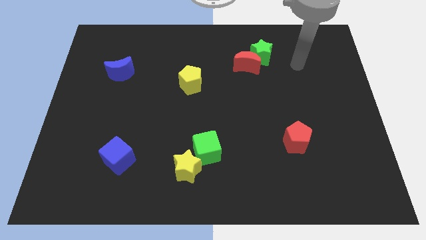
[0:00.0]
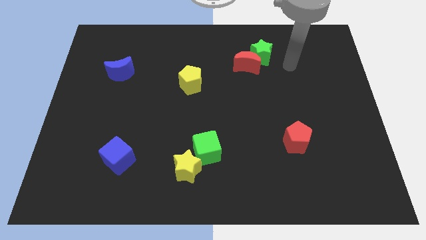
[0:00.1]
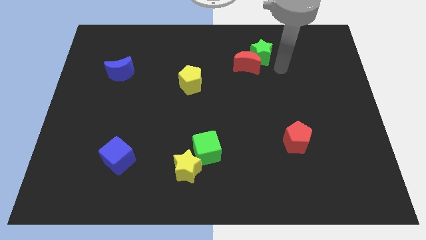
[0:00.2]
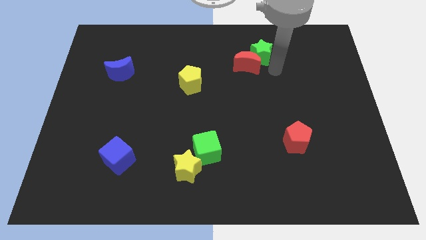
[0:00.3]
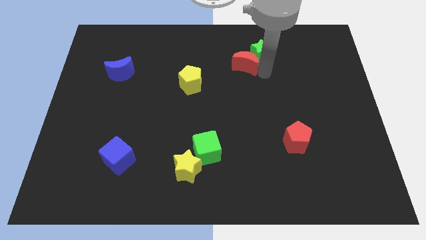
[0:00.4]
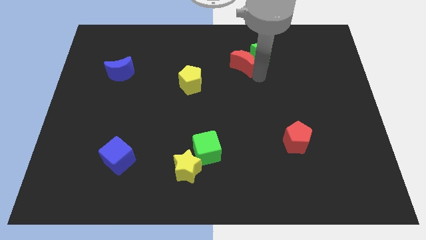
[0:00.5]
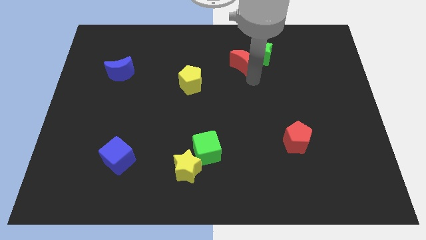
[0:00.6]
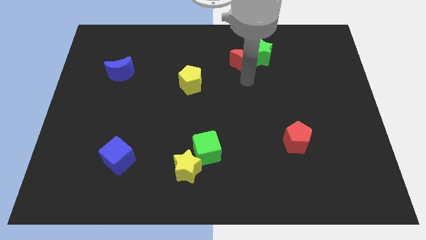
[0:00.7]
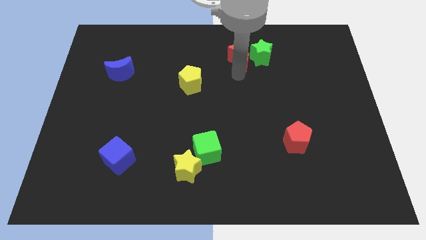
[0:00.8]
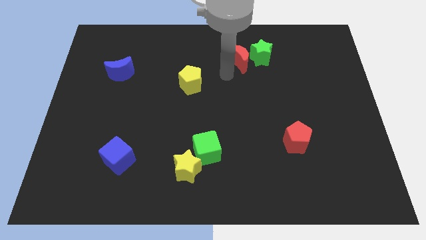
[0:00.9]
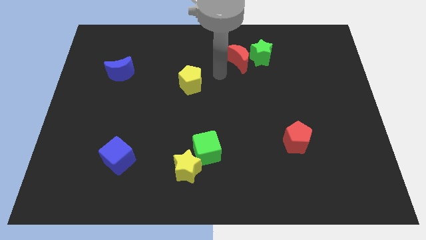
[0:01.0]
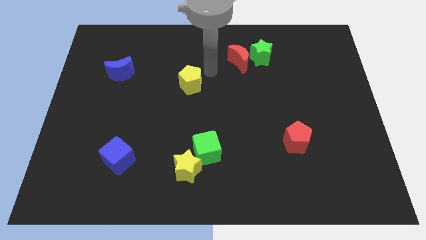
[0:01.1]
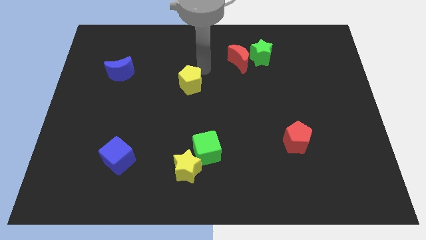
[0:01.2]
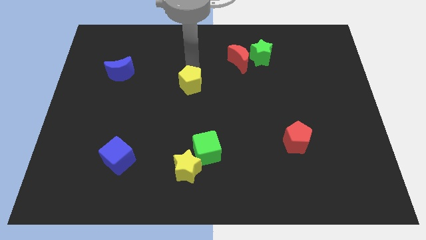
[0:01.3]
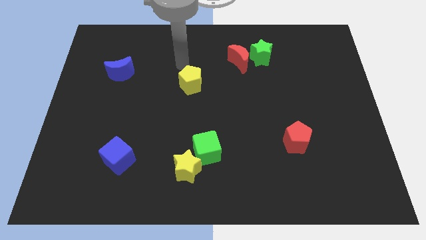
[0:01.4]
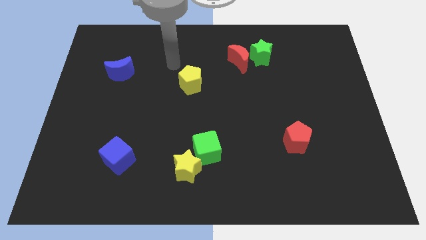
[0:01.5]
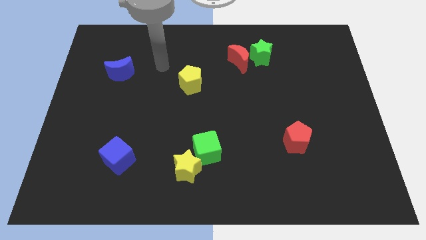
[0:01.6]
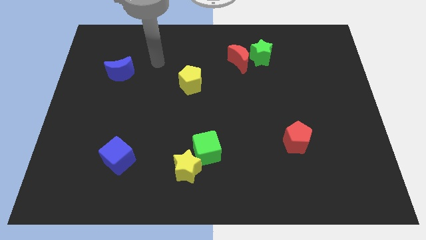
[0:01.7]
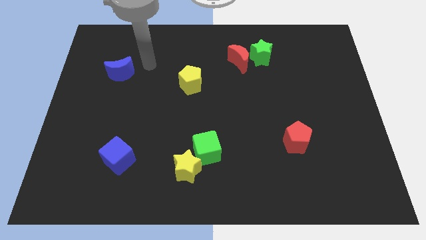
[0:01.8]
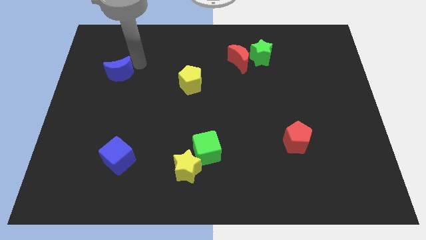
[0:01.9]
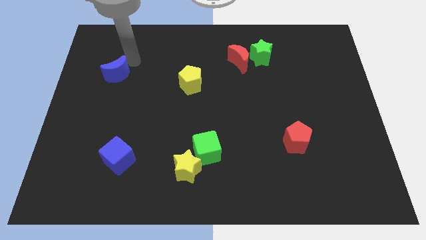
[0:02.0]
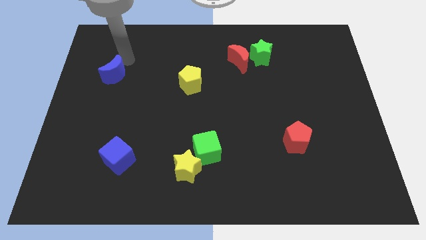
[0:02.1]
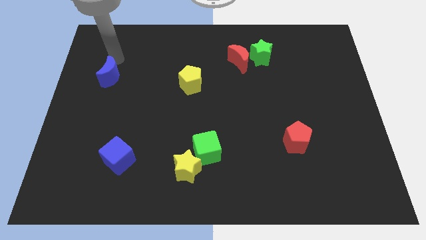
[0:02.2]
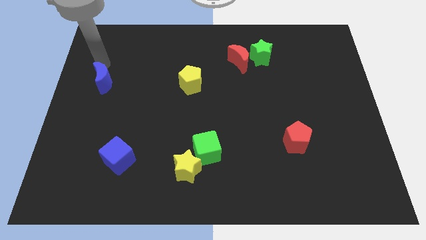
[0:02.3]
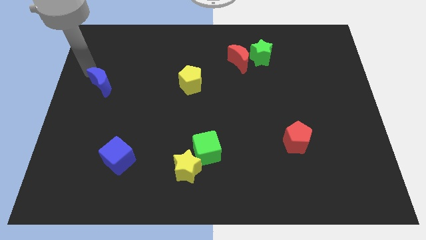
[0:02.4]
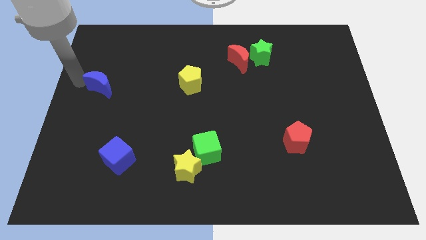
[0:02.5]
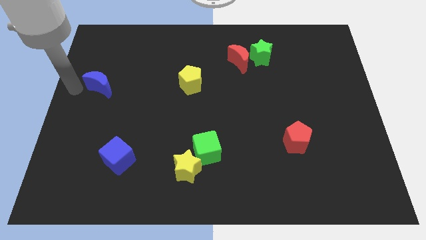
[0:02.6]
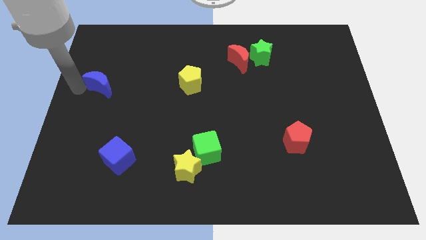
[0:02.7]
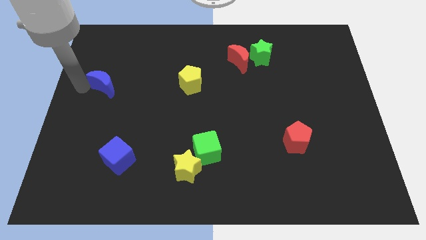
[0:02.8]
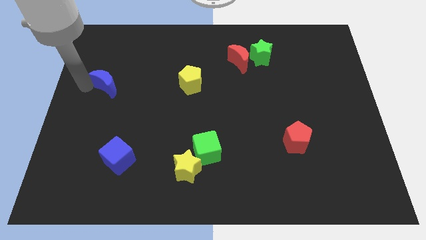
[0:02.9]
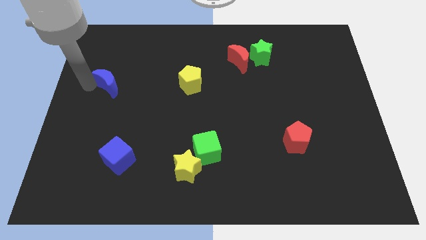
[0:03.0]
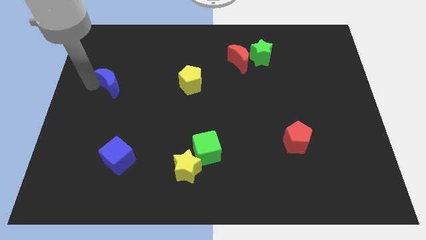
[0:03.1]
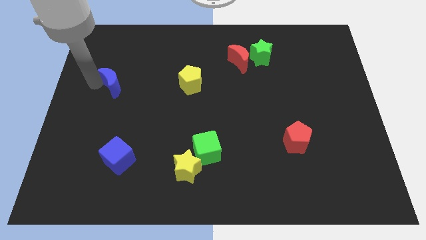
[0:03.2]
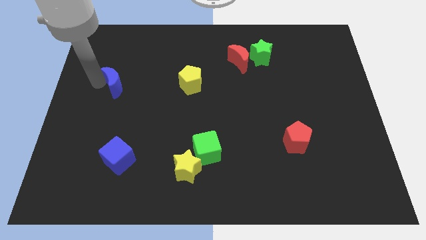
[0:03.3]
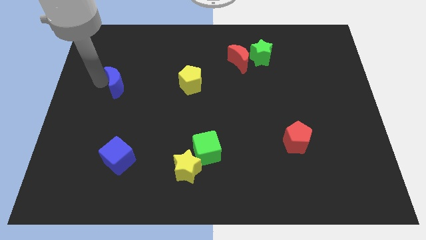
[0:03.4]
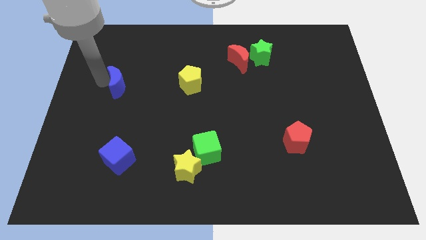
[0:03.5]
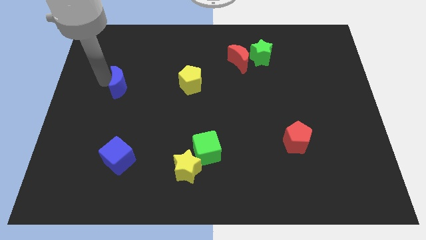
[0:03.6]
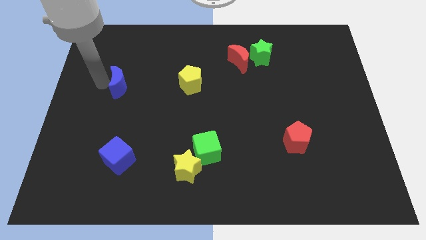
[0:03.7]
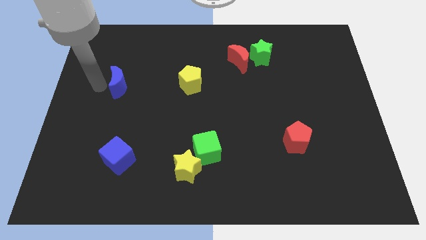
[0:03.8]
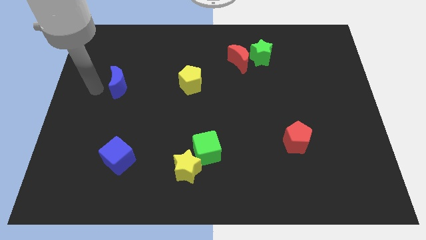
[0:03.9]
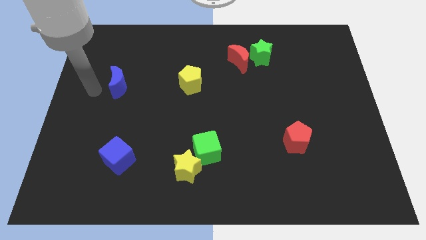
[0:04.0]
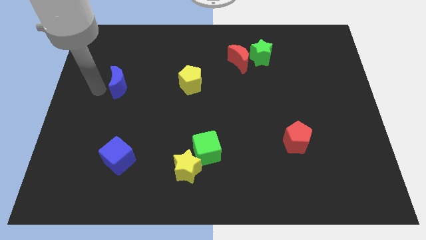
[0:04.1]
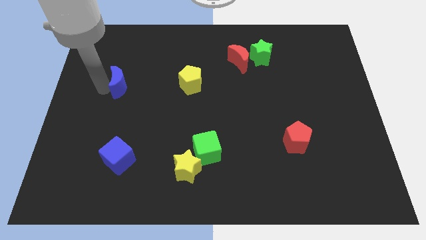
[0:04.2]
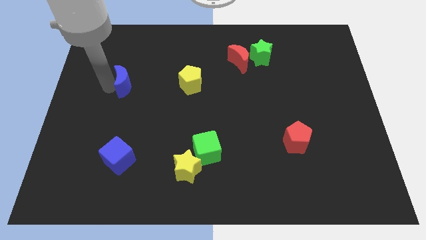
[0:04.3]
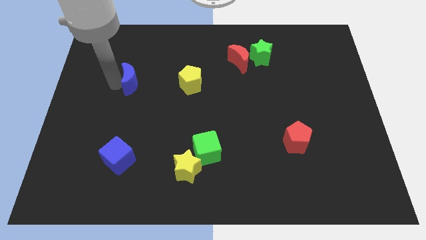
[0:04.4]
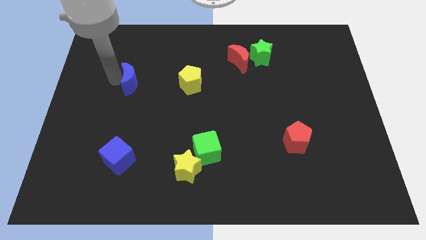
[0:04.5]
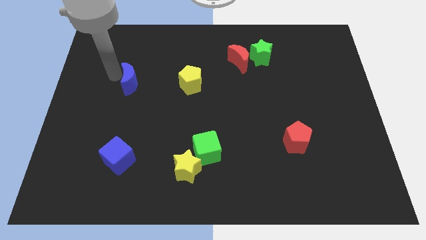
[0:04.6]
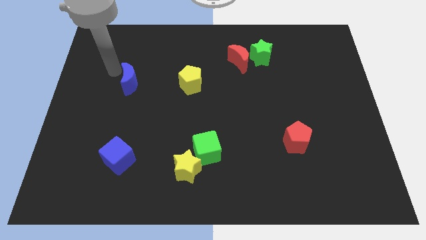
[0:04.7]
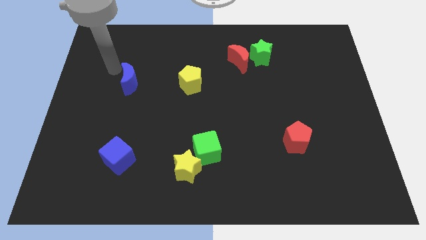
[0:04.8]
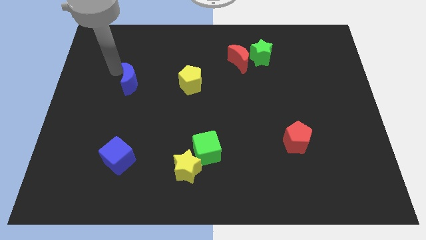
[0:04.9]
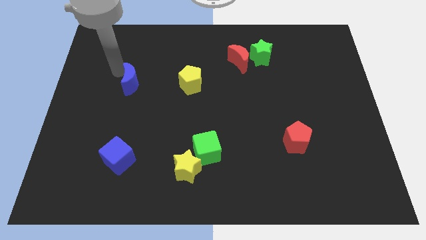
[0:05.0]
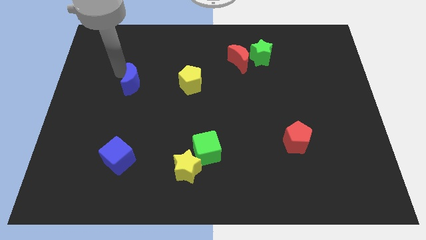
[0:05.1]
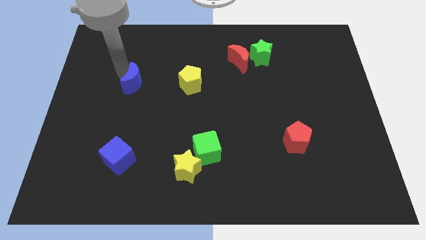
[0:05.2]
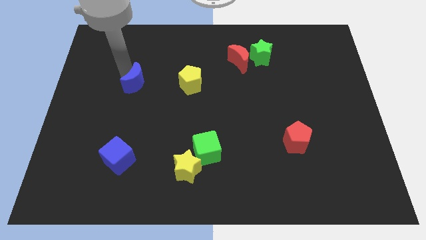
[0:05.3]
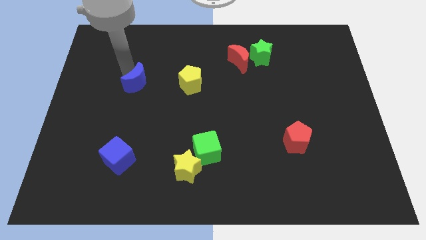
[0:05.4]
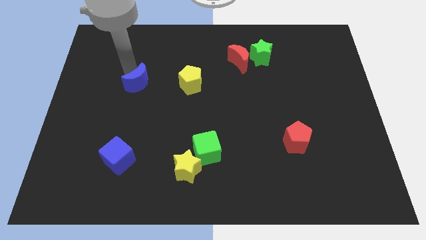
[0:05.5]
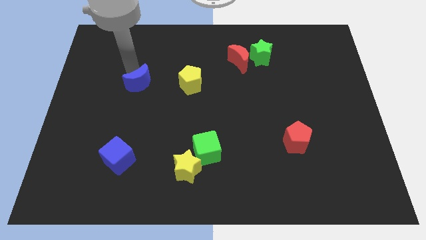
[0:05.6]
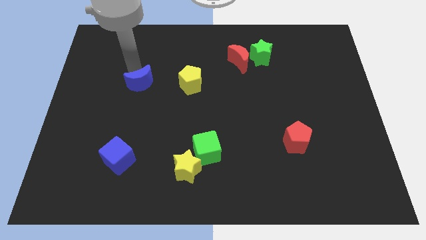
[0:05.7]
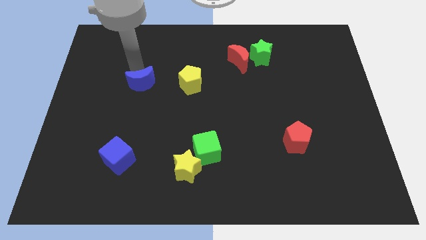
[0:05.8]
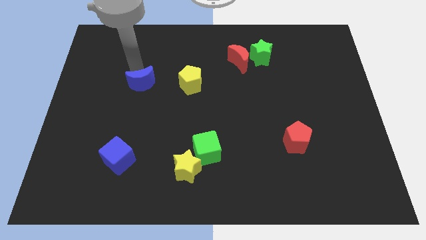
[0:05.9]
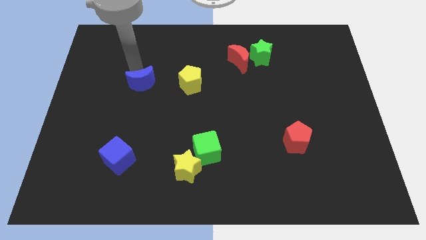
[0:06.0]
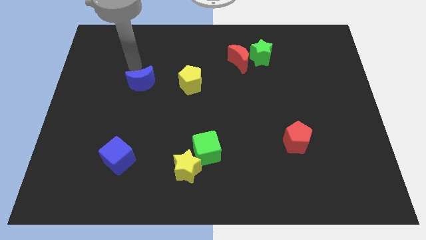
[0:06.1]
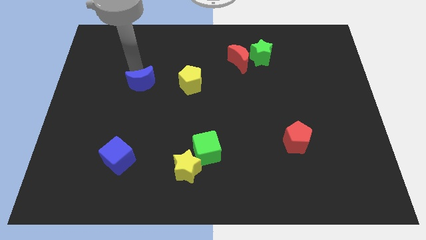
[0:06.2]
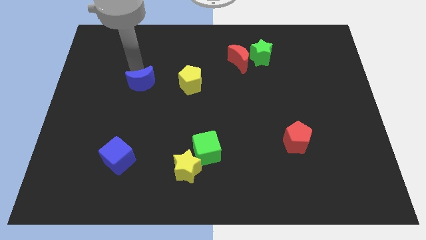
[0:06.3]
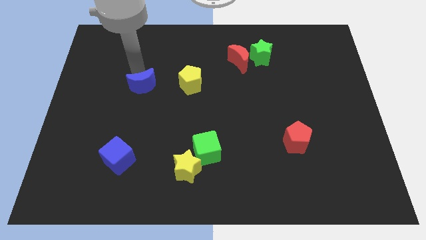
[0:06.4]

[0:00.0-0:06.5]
push the blue moon a little bit downwards and right

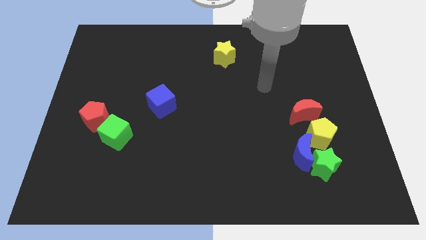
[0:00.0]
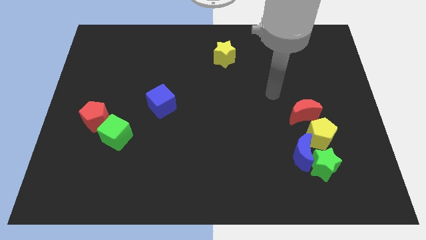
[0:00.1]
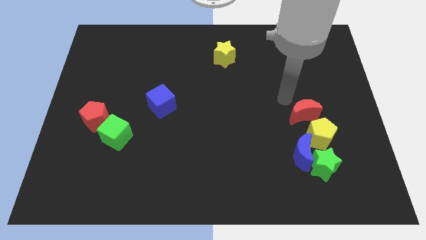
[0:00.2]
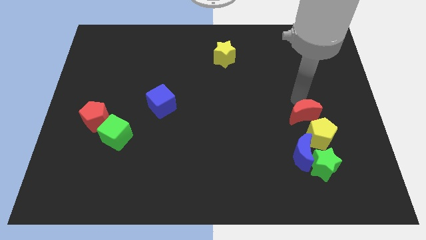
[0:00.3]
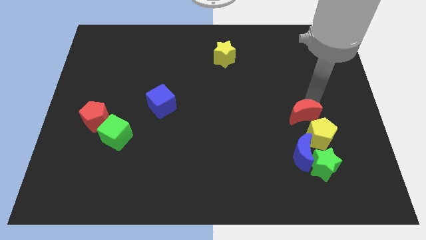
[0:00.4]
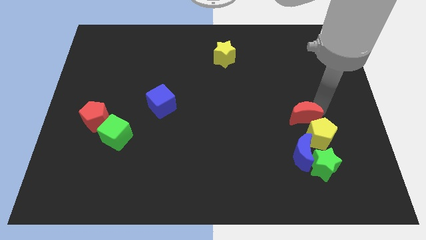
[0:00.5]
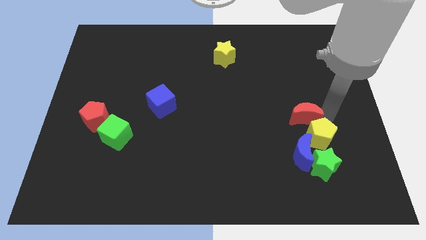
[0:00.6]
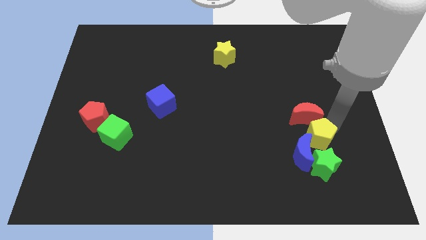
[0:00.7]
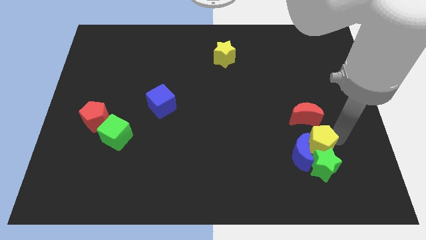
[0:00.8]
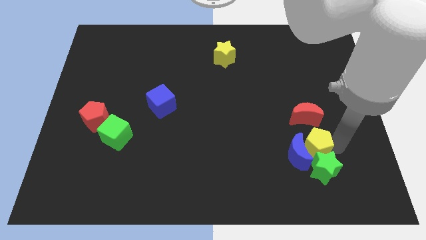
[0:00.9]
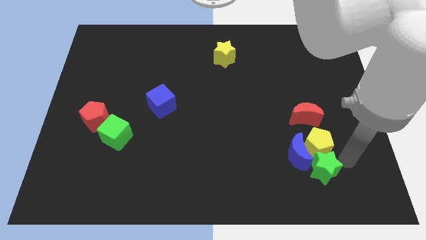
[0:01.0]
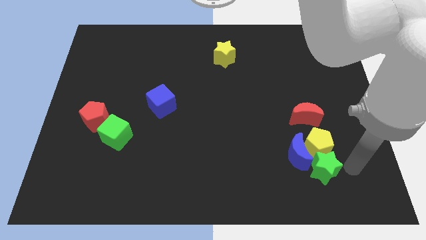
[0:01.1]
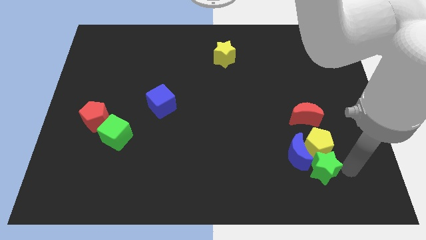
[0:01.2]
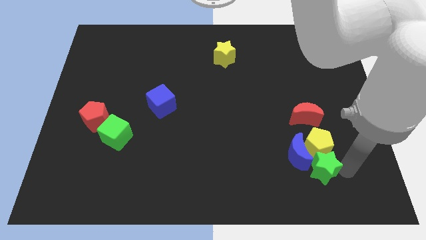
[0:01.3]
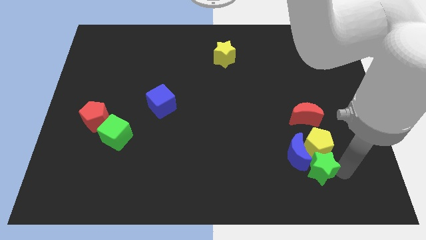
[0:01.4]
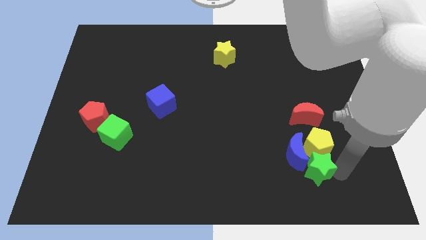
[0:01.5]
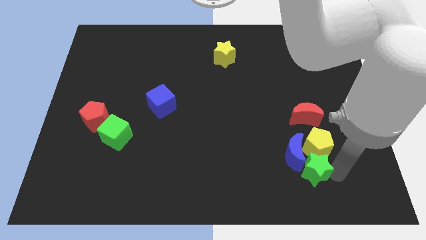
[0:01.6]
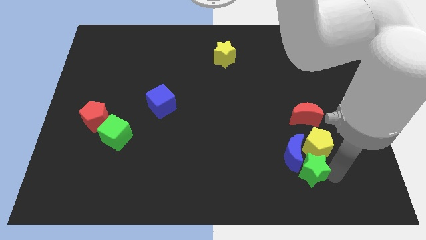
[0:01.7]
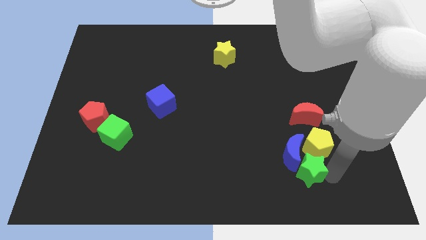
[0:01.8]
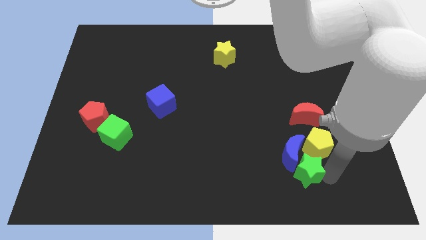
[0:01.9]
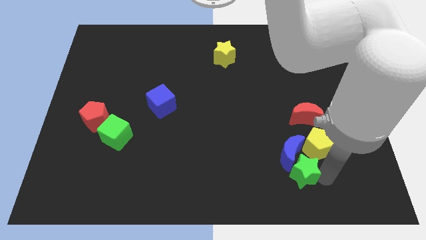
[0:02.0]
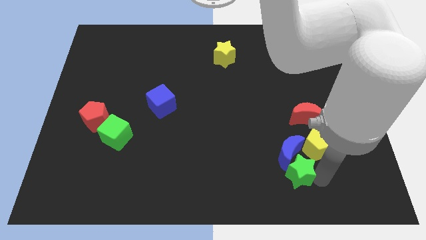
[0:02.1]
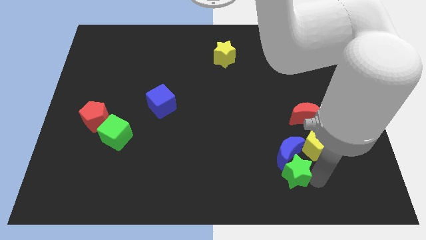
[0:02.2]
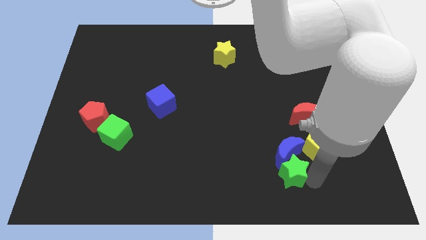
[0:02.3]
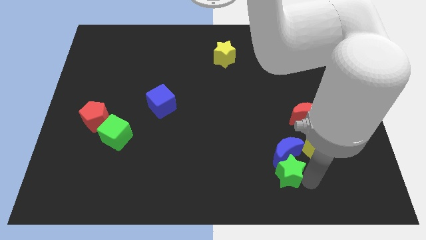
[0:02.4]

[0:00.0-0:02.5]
slide the green star a little left
